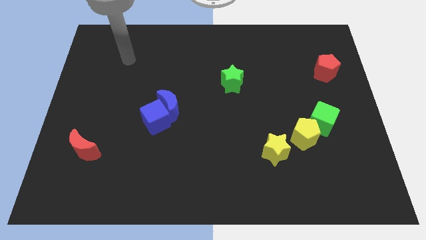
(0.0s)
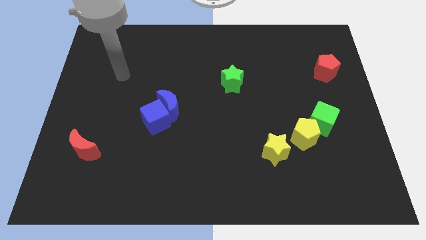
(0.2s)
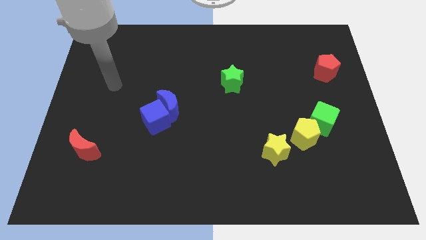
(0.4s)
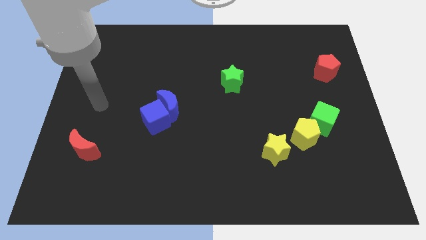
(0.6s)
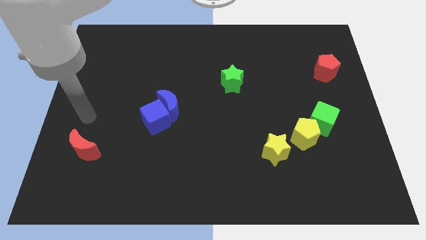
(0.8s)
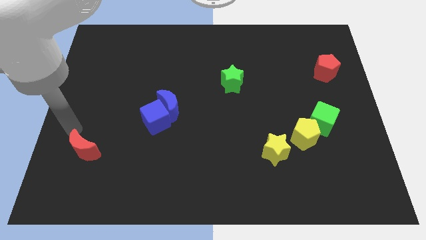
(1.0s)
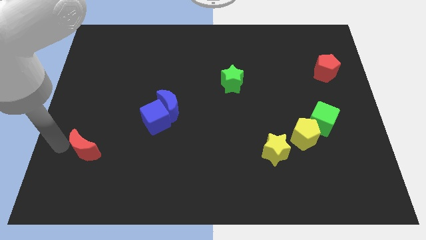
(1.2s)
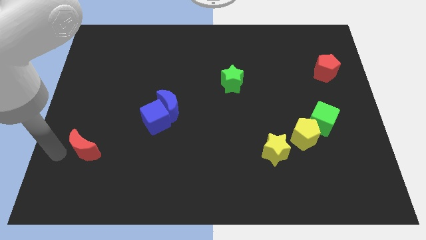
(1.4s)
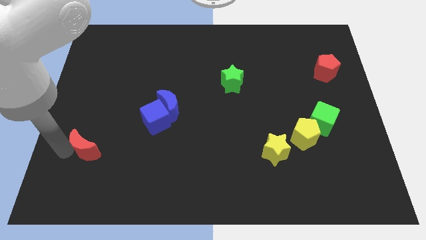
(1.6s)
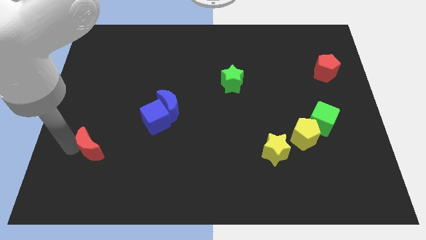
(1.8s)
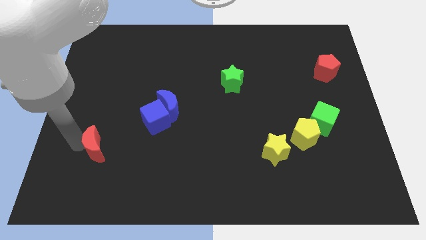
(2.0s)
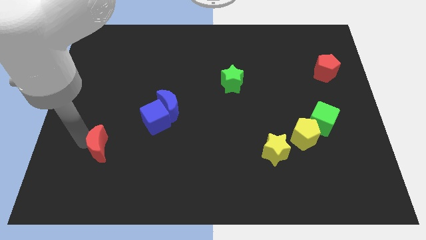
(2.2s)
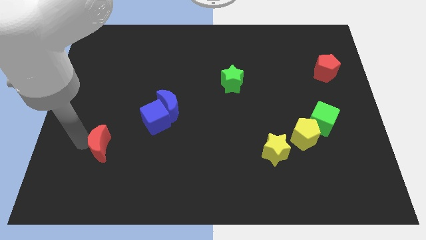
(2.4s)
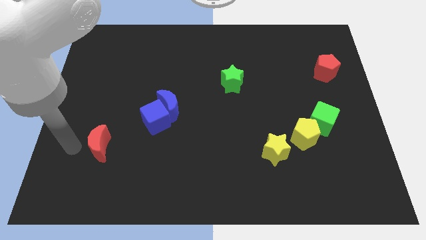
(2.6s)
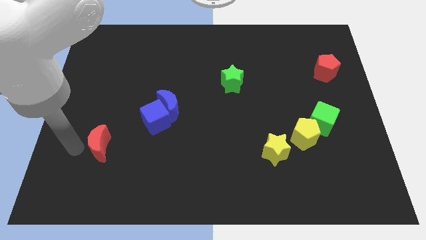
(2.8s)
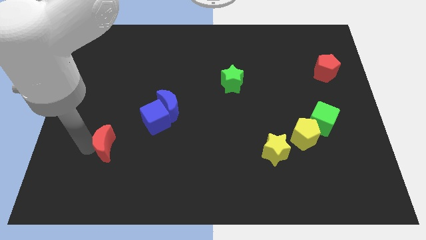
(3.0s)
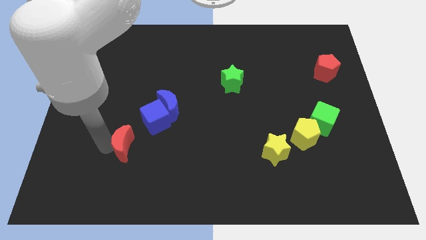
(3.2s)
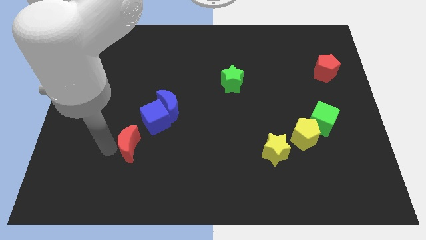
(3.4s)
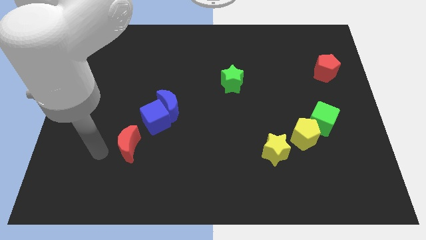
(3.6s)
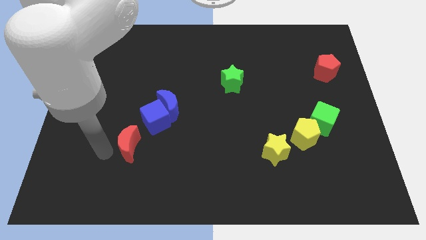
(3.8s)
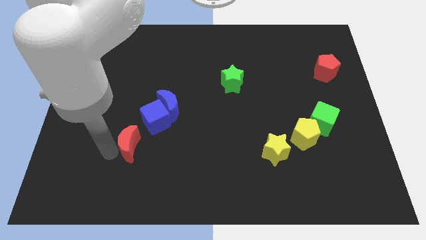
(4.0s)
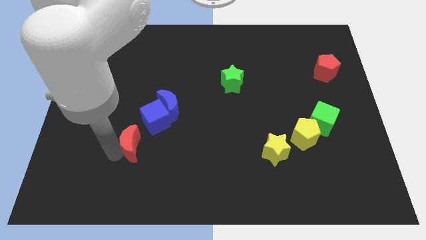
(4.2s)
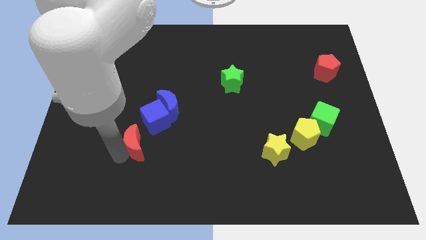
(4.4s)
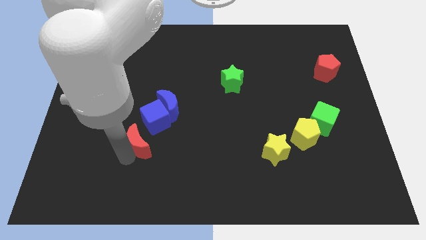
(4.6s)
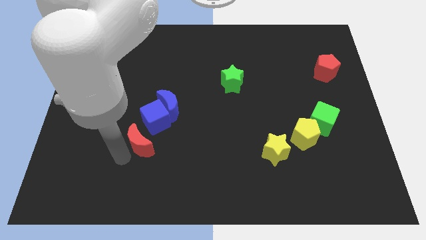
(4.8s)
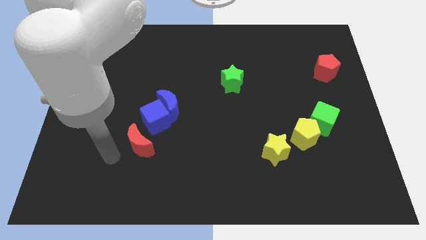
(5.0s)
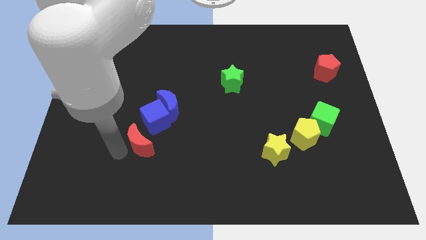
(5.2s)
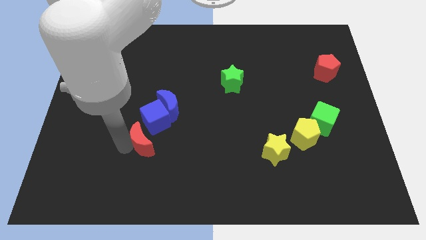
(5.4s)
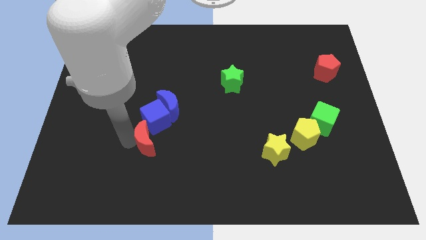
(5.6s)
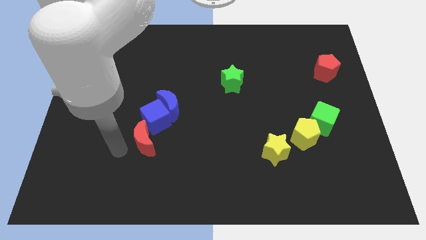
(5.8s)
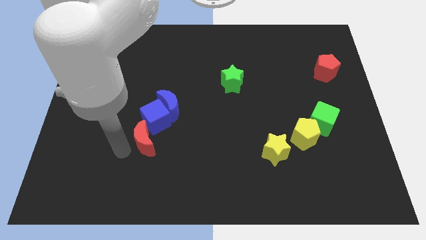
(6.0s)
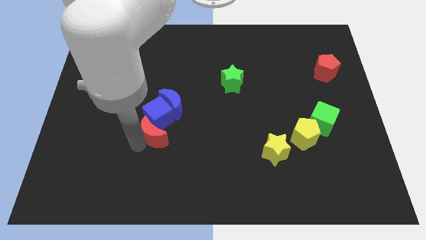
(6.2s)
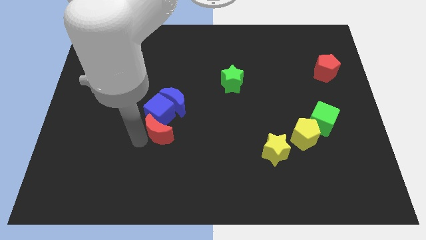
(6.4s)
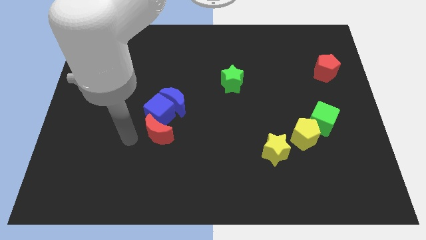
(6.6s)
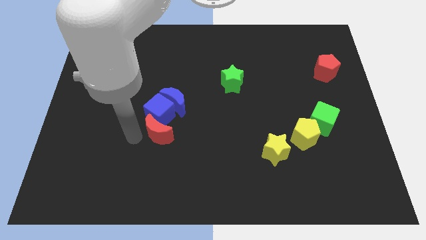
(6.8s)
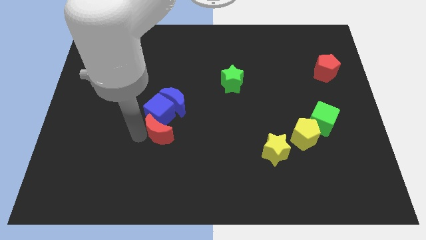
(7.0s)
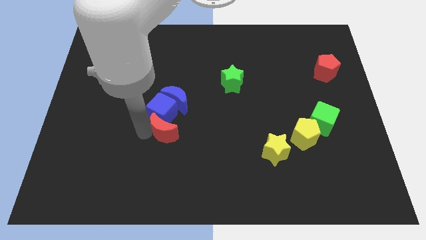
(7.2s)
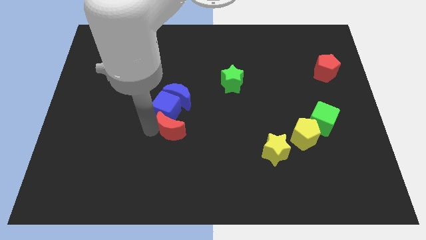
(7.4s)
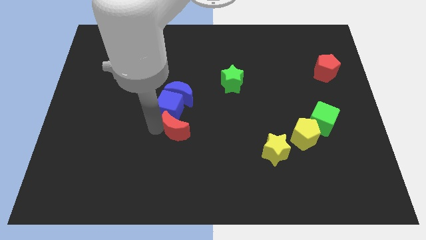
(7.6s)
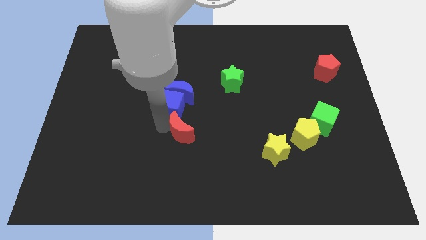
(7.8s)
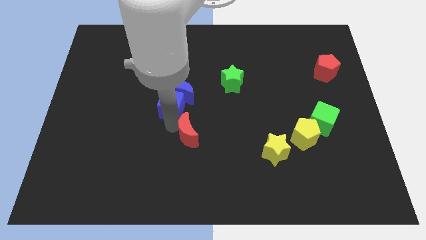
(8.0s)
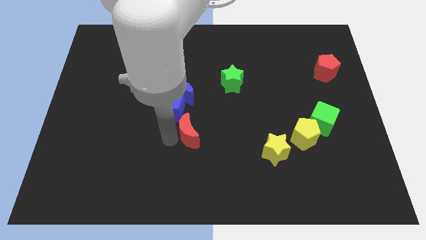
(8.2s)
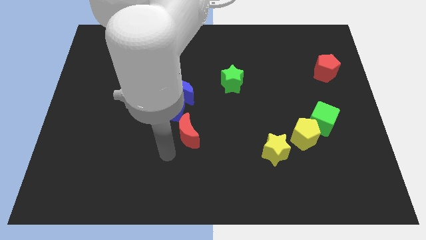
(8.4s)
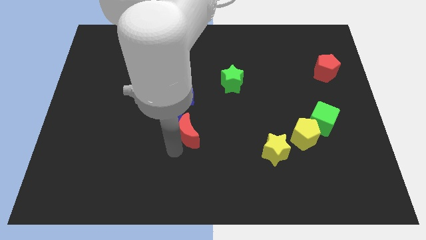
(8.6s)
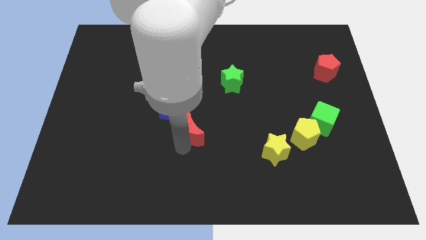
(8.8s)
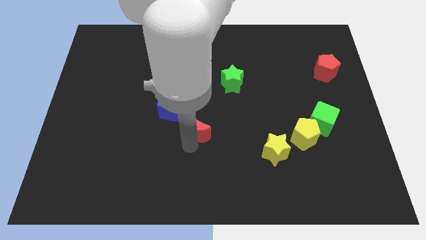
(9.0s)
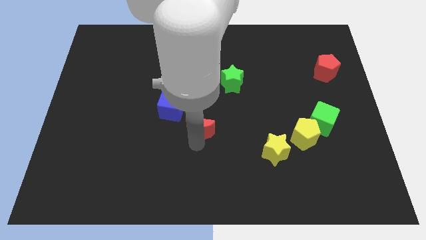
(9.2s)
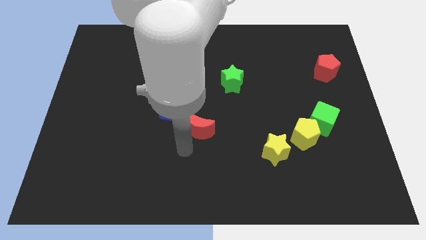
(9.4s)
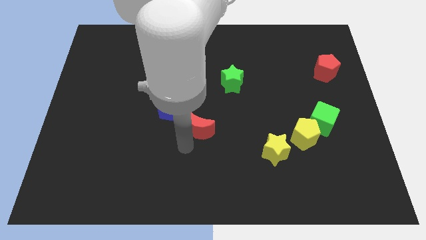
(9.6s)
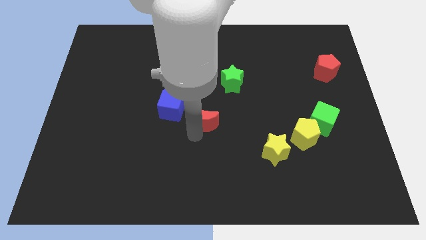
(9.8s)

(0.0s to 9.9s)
put the red moon to the right of the blue cube

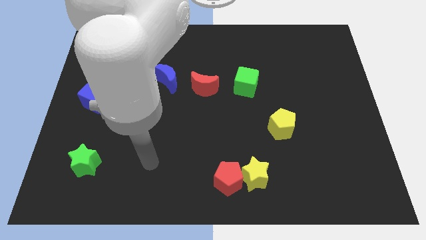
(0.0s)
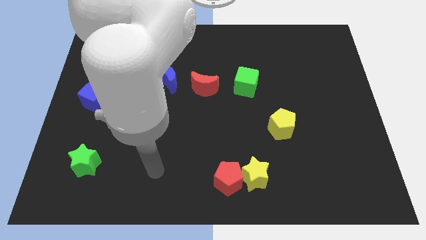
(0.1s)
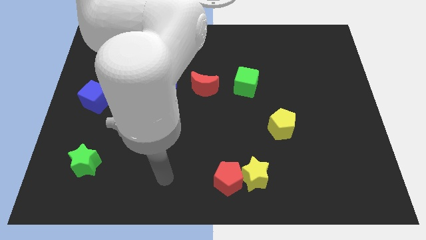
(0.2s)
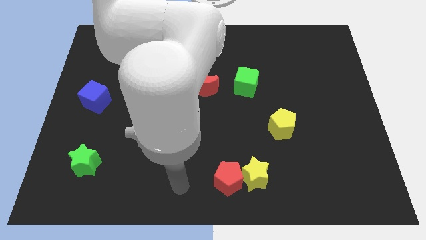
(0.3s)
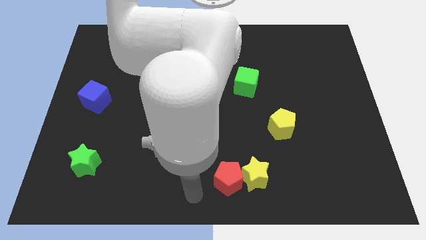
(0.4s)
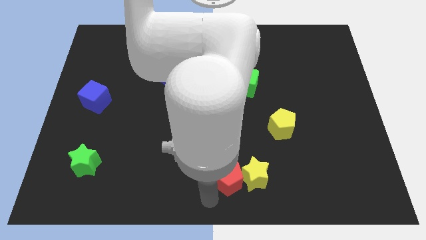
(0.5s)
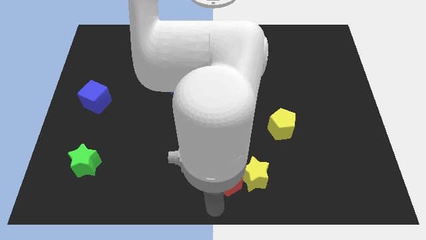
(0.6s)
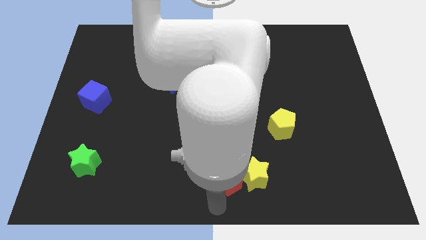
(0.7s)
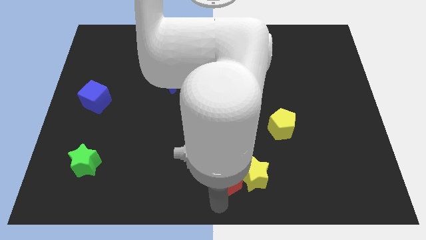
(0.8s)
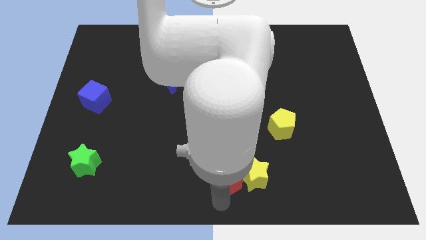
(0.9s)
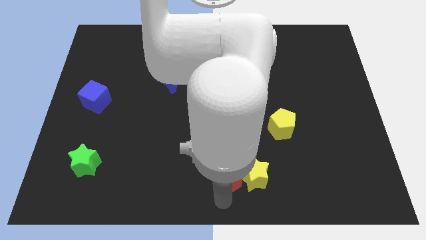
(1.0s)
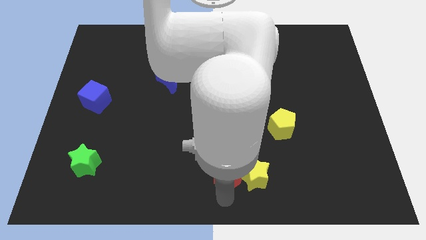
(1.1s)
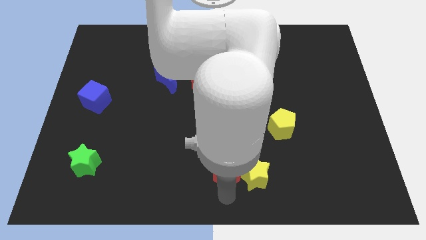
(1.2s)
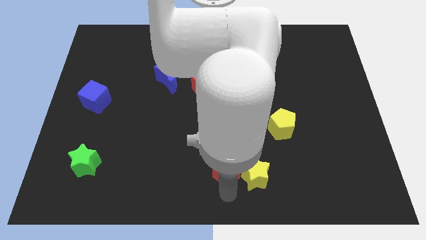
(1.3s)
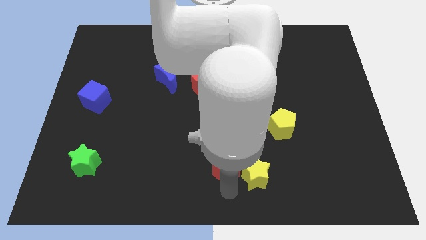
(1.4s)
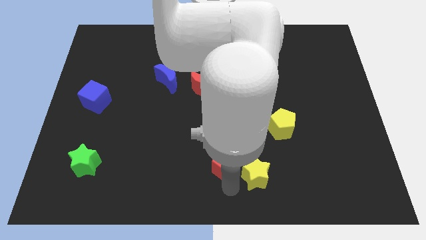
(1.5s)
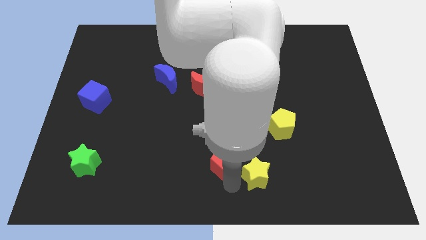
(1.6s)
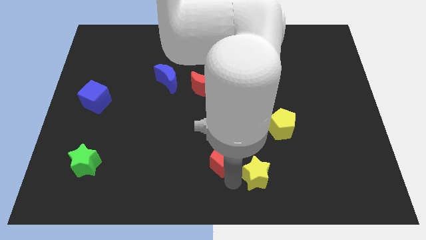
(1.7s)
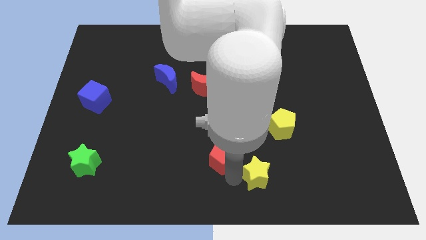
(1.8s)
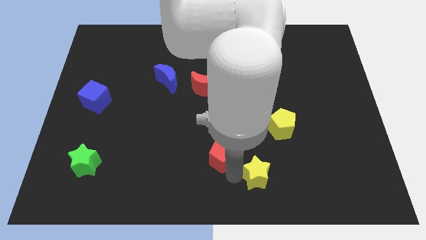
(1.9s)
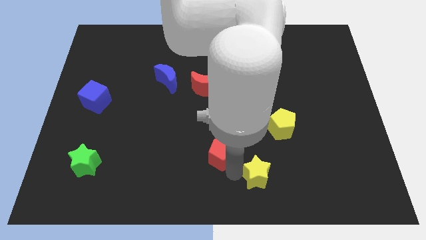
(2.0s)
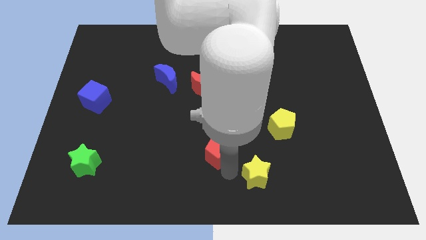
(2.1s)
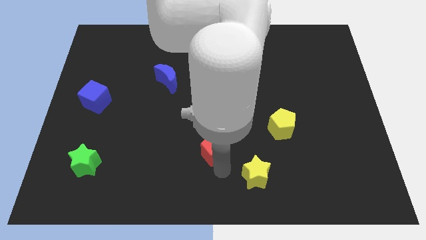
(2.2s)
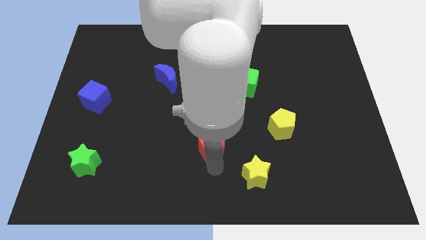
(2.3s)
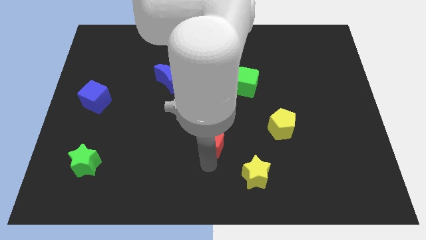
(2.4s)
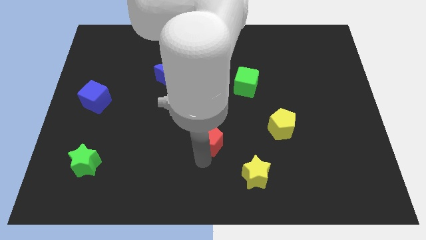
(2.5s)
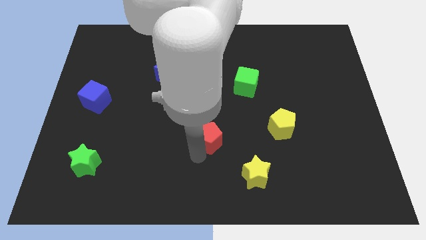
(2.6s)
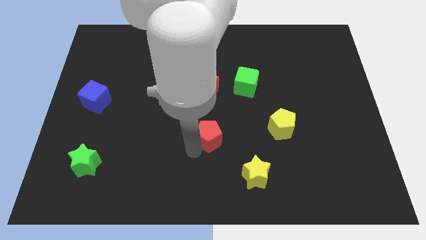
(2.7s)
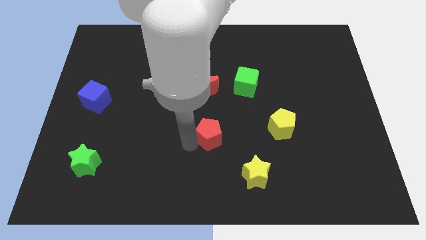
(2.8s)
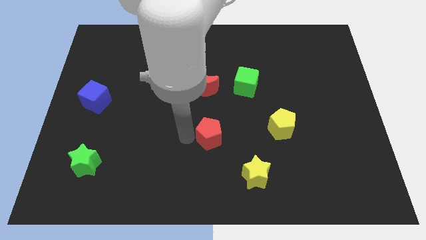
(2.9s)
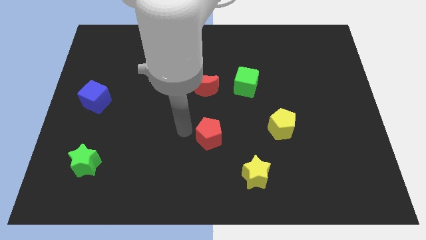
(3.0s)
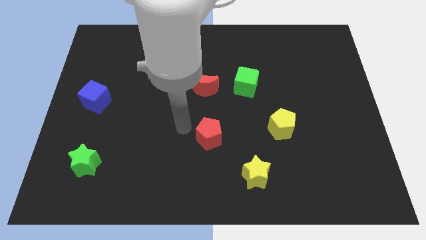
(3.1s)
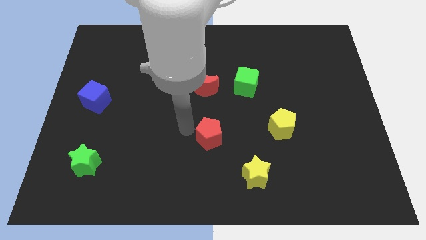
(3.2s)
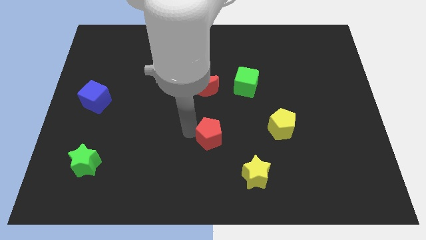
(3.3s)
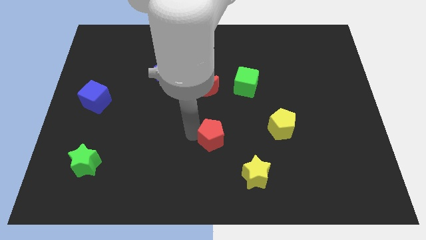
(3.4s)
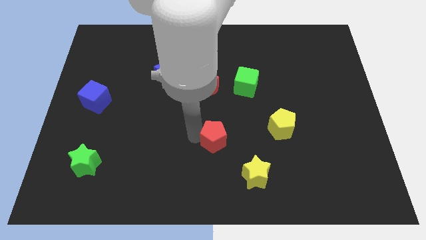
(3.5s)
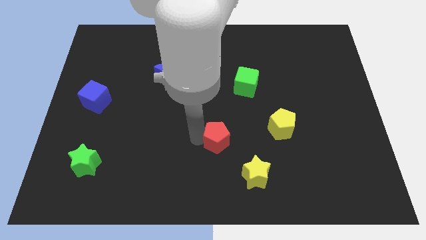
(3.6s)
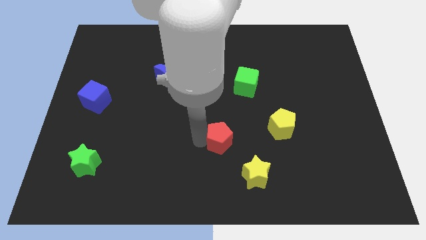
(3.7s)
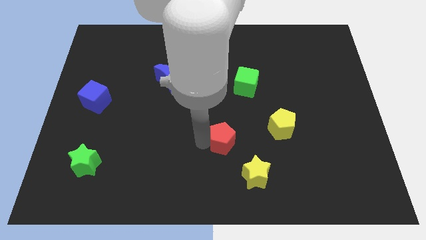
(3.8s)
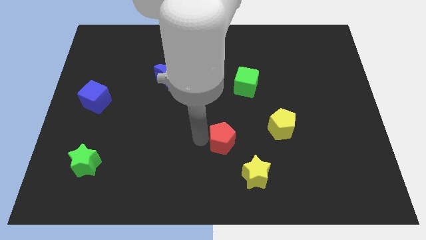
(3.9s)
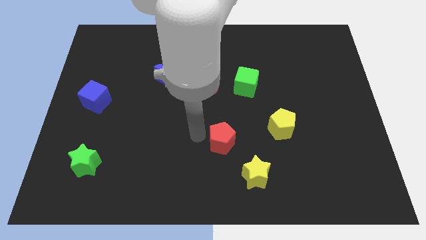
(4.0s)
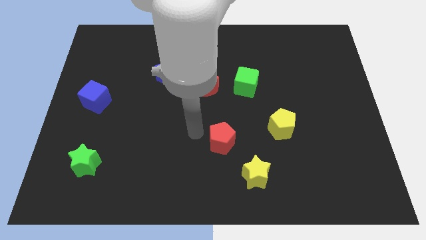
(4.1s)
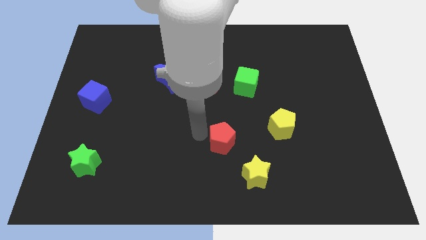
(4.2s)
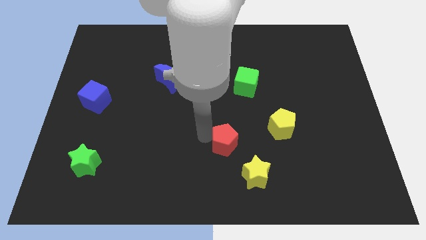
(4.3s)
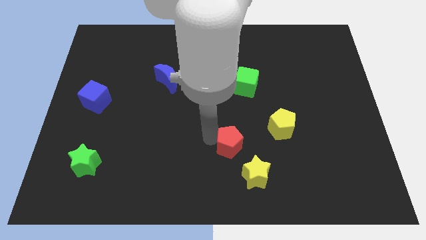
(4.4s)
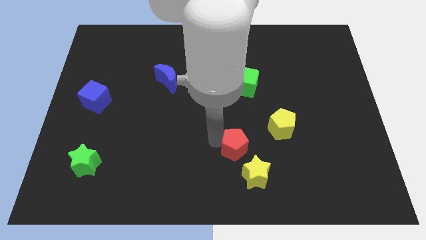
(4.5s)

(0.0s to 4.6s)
put the red pentagon to the top of the yellow star
